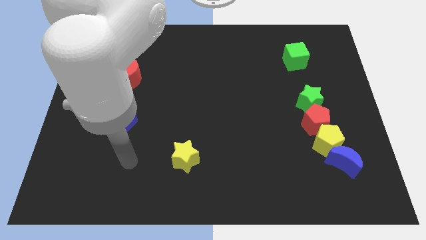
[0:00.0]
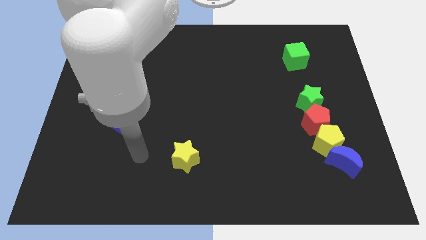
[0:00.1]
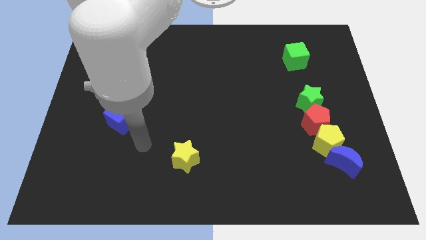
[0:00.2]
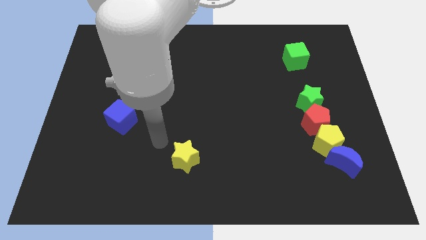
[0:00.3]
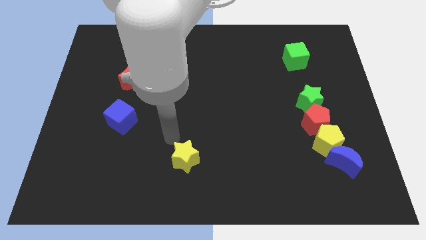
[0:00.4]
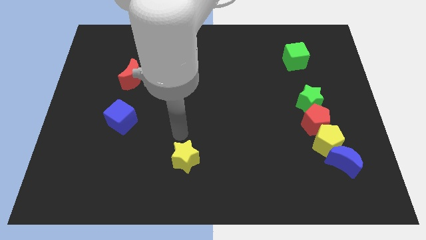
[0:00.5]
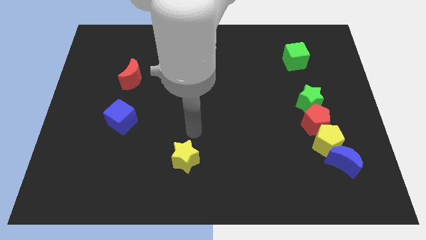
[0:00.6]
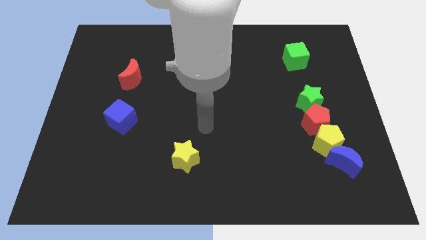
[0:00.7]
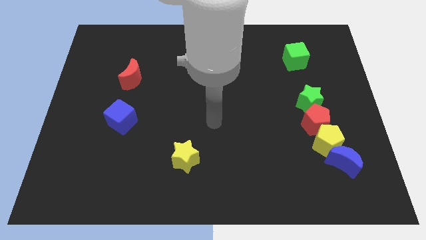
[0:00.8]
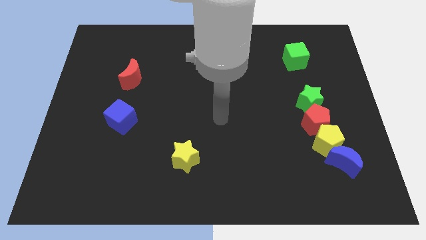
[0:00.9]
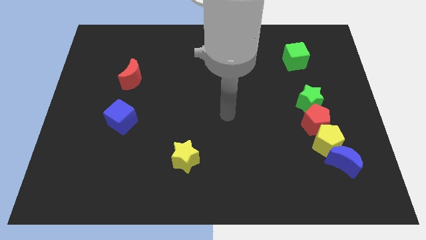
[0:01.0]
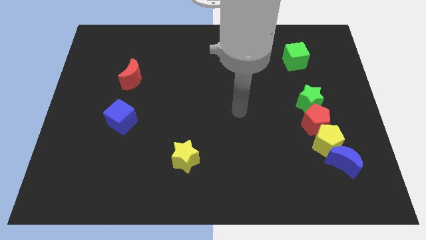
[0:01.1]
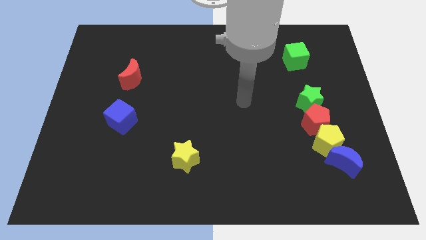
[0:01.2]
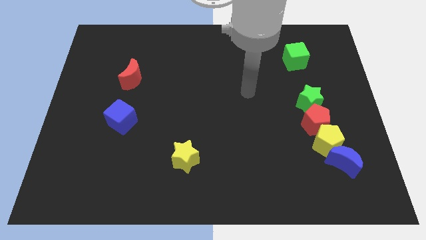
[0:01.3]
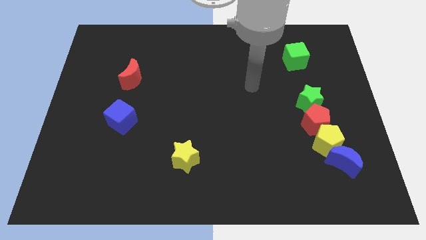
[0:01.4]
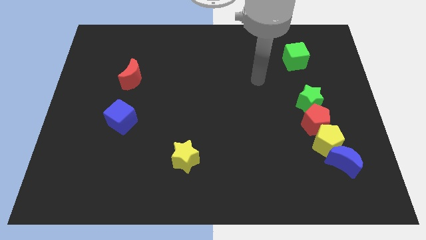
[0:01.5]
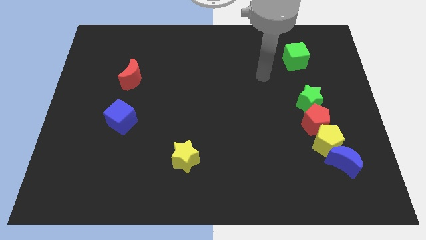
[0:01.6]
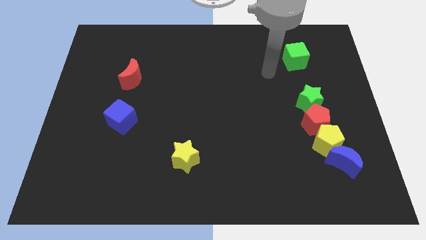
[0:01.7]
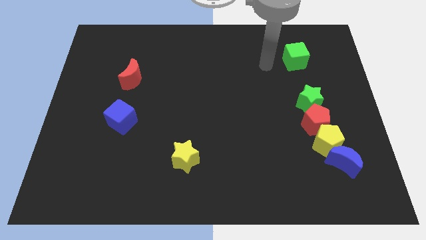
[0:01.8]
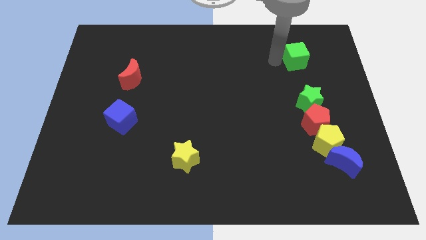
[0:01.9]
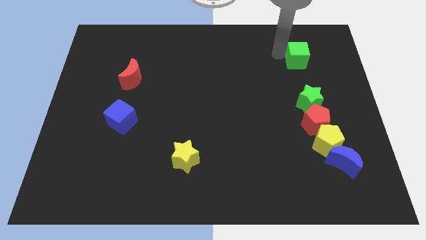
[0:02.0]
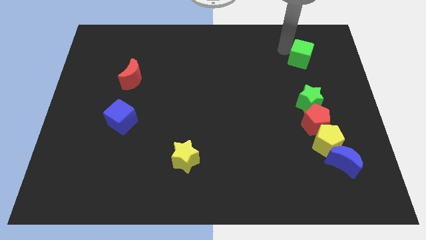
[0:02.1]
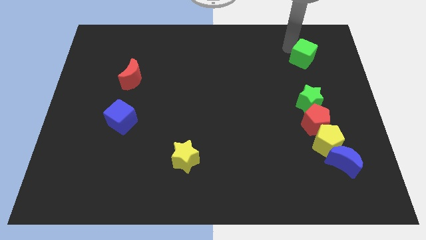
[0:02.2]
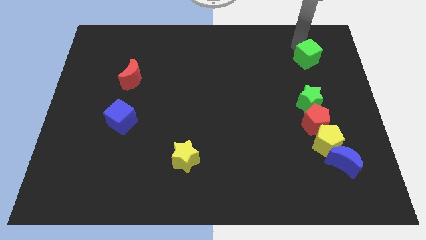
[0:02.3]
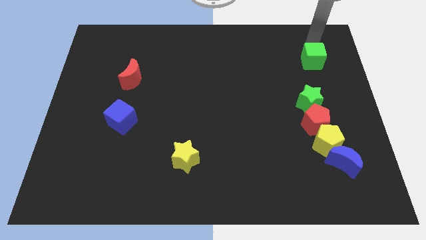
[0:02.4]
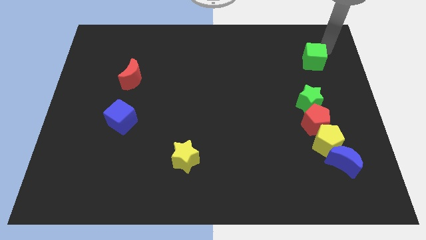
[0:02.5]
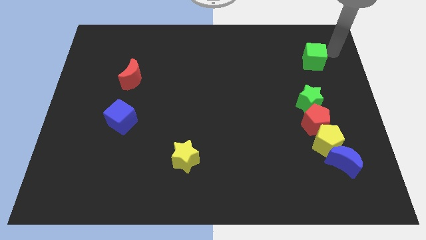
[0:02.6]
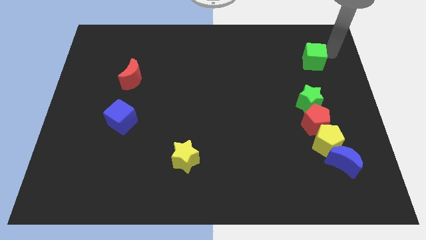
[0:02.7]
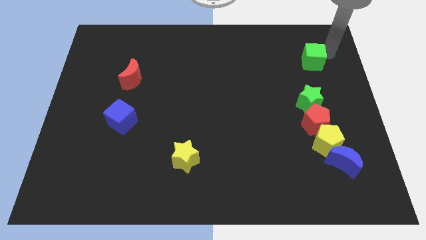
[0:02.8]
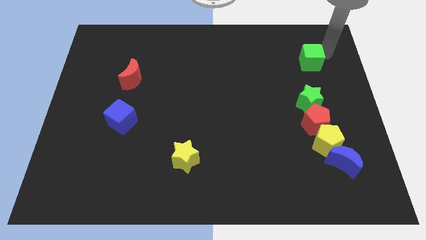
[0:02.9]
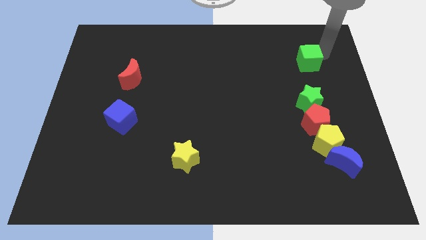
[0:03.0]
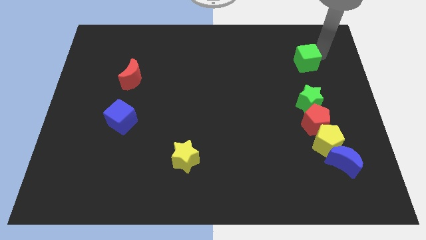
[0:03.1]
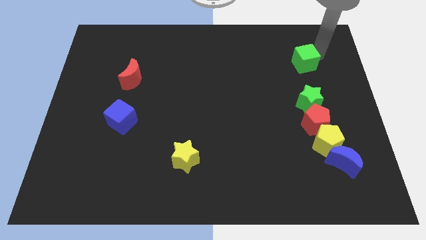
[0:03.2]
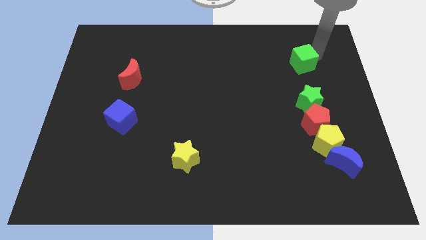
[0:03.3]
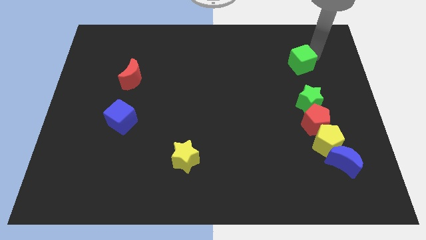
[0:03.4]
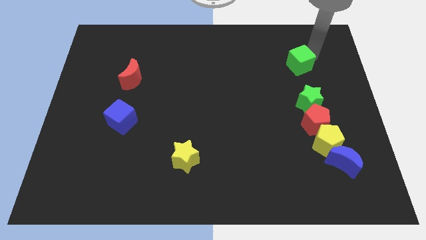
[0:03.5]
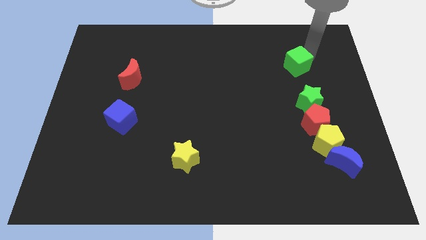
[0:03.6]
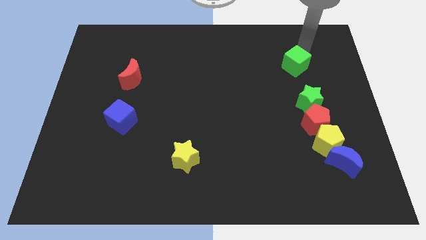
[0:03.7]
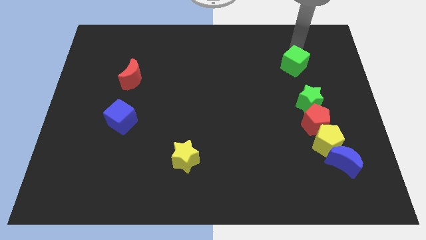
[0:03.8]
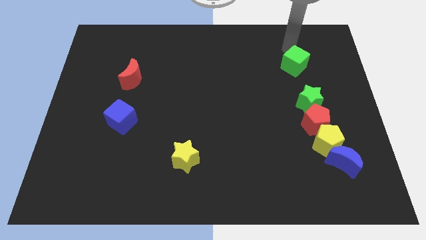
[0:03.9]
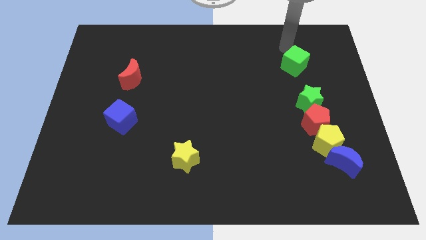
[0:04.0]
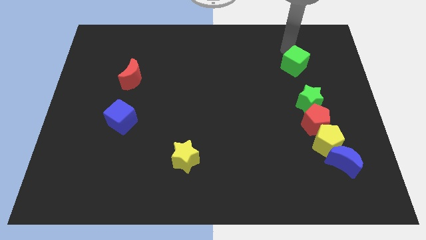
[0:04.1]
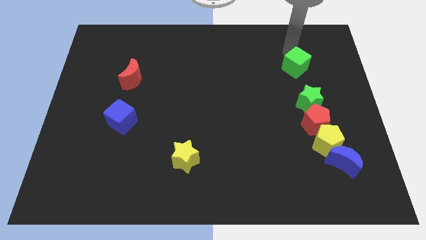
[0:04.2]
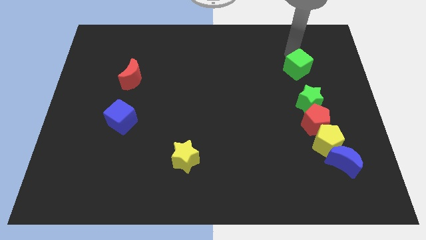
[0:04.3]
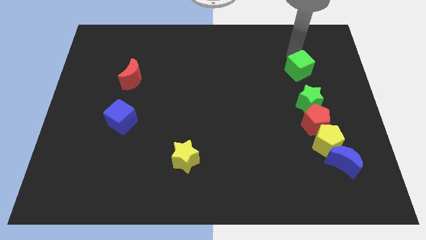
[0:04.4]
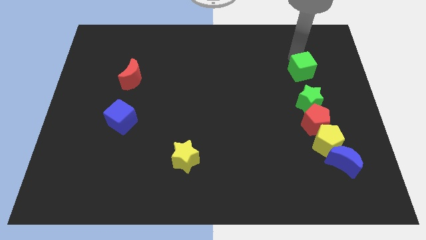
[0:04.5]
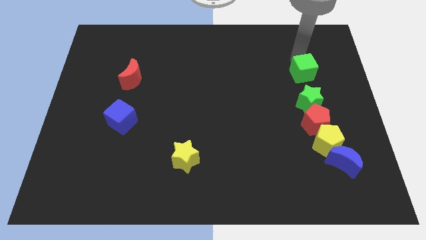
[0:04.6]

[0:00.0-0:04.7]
push the green cube to the top side of the red pentagon

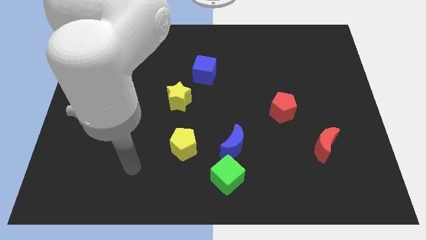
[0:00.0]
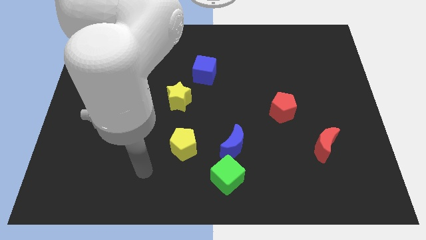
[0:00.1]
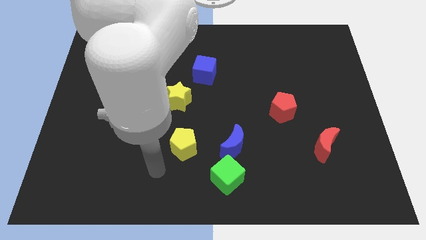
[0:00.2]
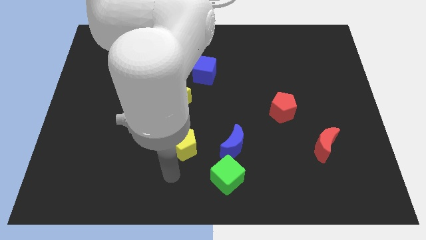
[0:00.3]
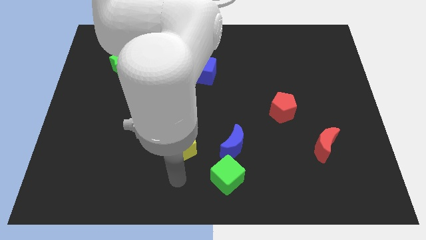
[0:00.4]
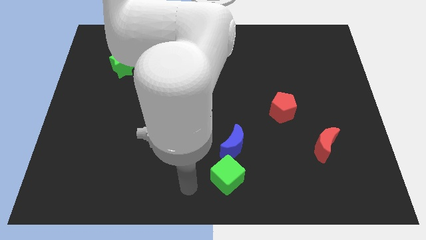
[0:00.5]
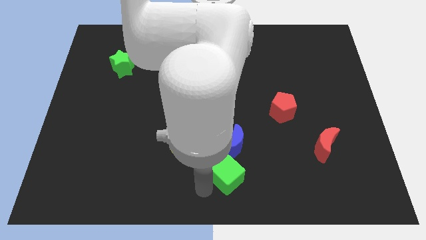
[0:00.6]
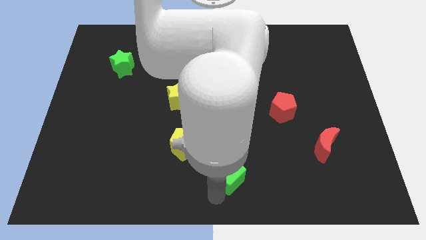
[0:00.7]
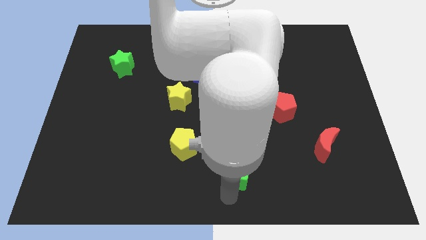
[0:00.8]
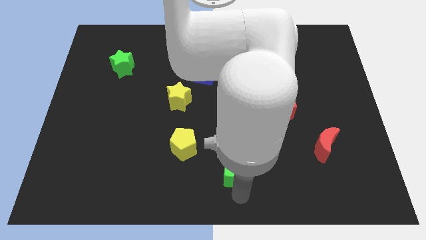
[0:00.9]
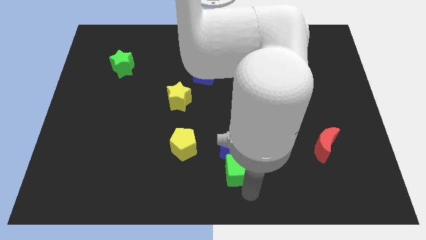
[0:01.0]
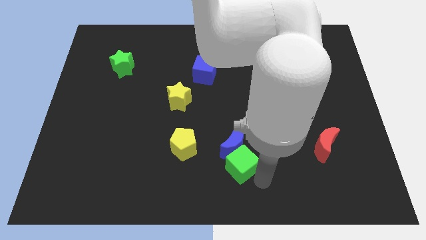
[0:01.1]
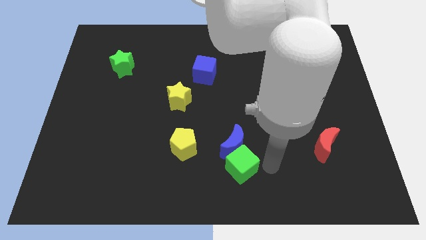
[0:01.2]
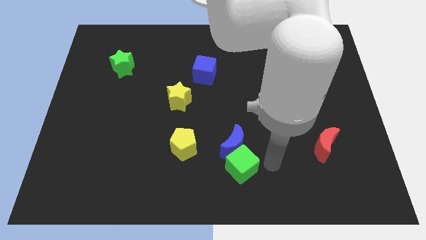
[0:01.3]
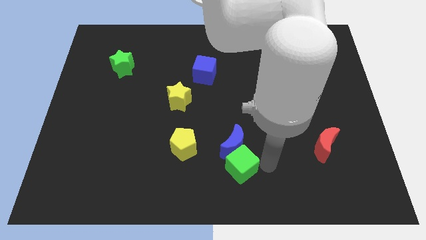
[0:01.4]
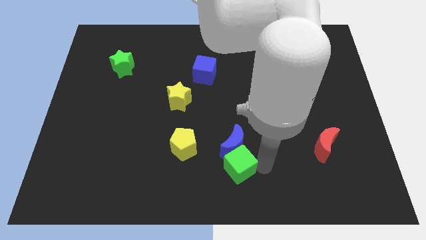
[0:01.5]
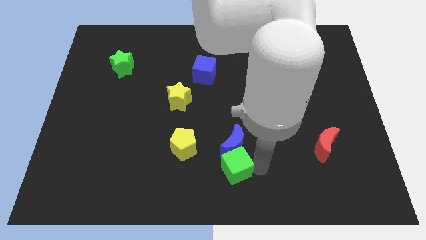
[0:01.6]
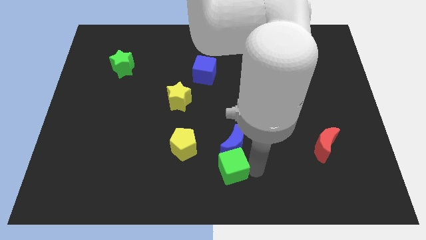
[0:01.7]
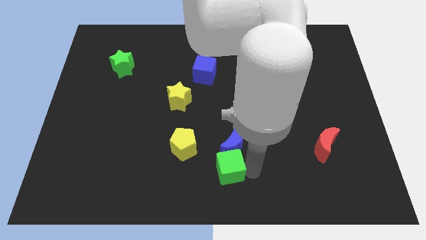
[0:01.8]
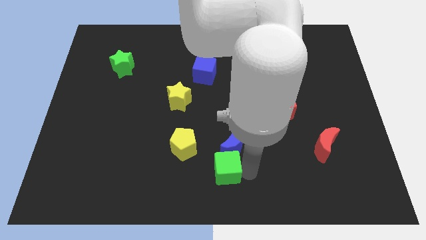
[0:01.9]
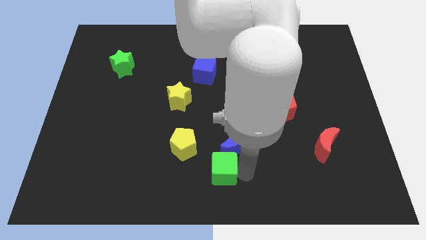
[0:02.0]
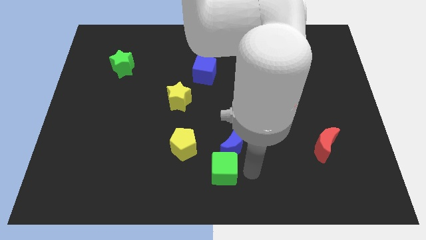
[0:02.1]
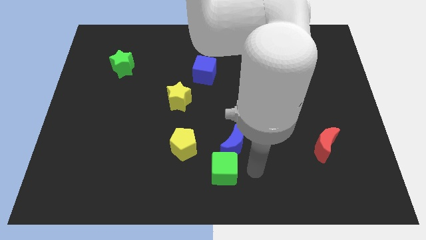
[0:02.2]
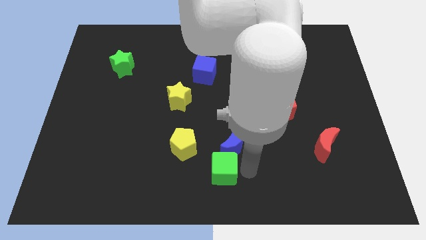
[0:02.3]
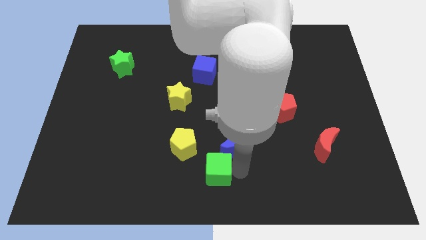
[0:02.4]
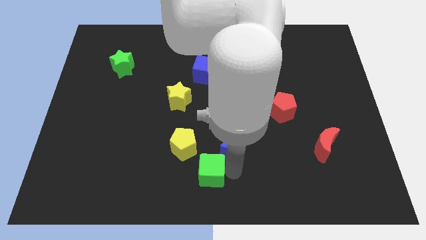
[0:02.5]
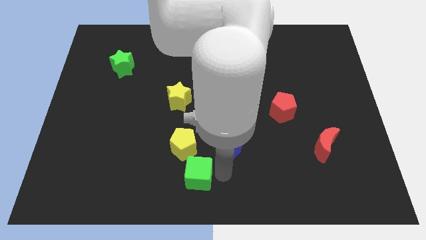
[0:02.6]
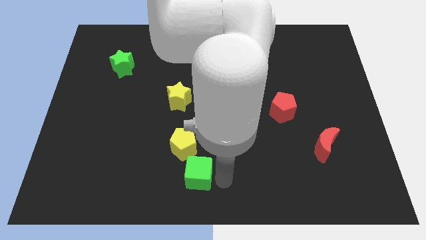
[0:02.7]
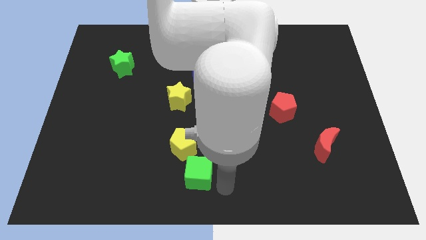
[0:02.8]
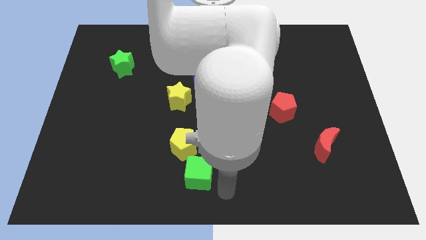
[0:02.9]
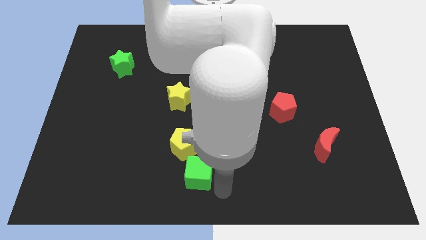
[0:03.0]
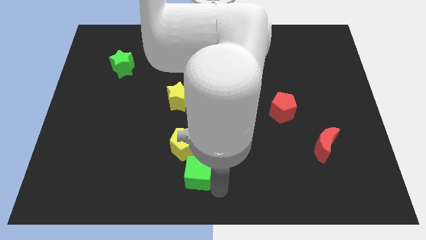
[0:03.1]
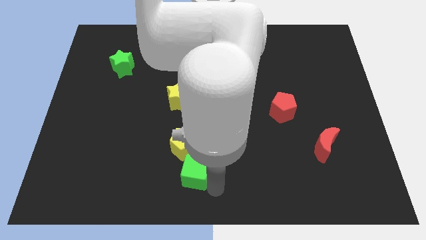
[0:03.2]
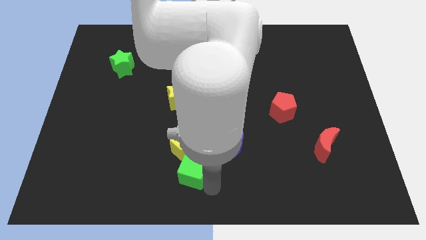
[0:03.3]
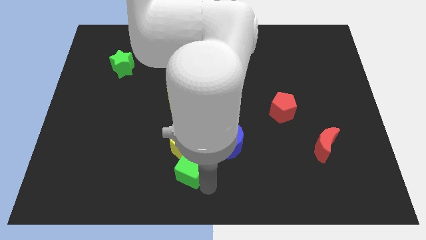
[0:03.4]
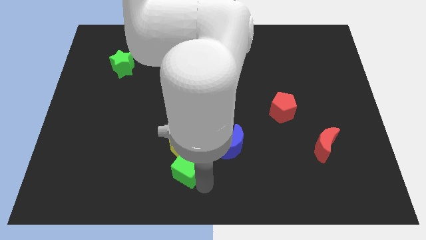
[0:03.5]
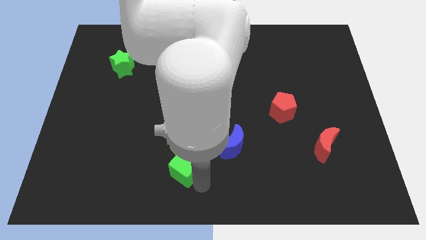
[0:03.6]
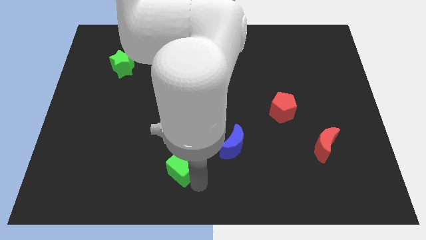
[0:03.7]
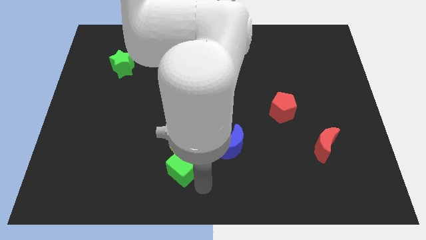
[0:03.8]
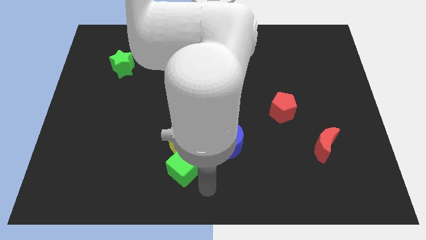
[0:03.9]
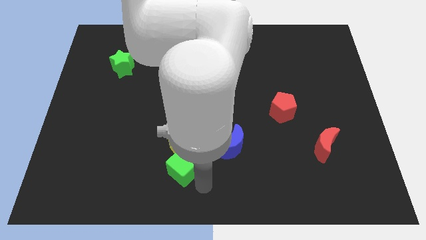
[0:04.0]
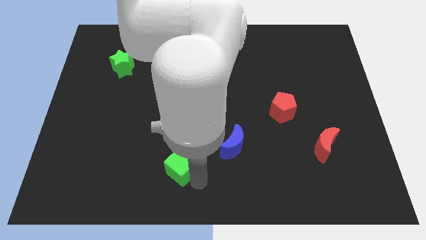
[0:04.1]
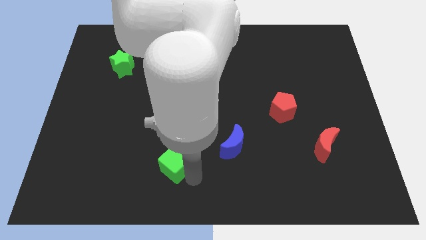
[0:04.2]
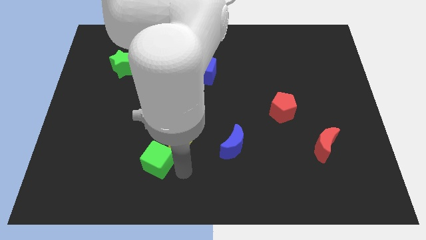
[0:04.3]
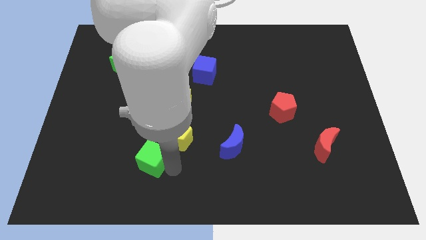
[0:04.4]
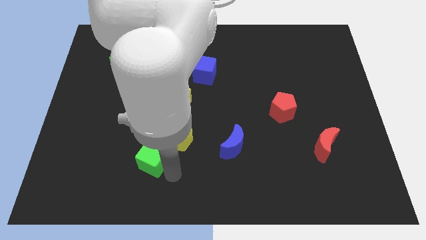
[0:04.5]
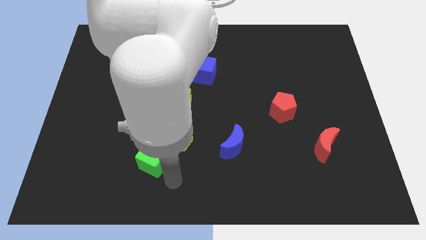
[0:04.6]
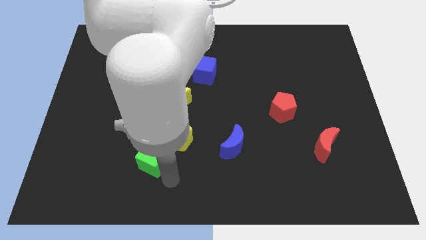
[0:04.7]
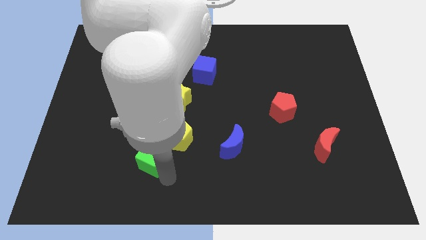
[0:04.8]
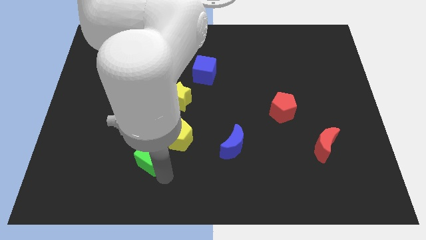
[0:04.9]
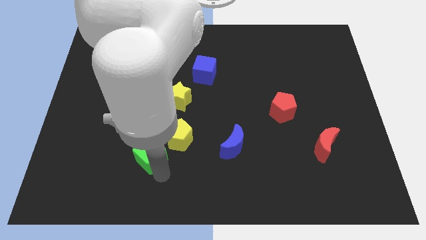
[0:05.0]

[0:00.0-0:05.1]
slide the green cube to the left side of the yellow pentagon
